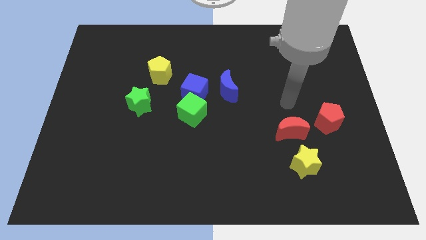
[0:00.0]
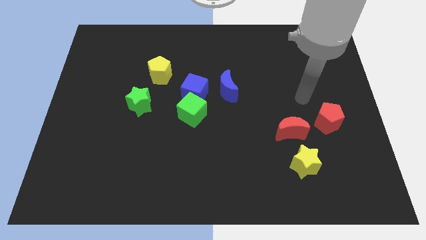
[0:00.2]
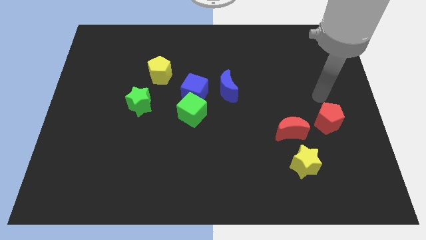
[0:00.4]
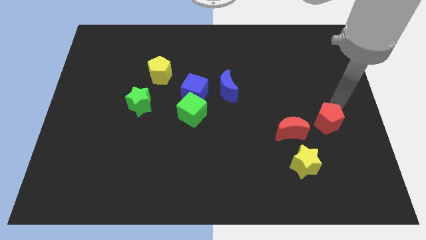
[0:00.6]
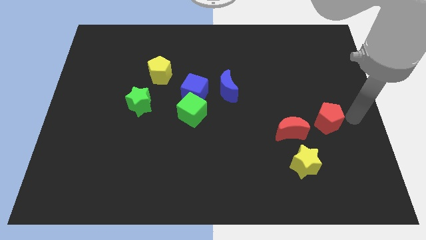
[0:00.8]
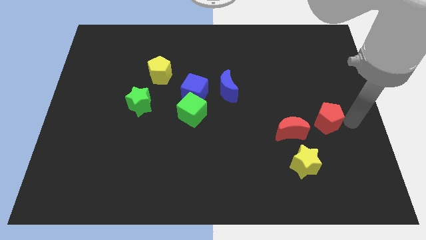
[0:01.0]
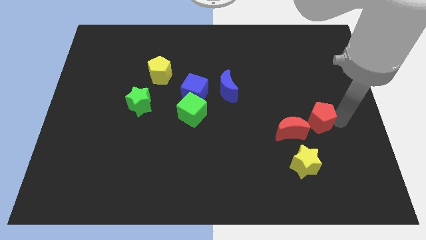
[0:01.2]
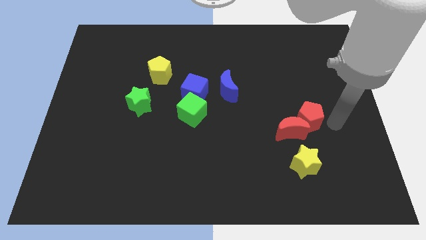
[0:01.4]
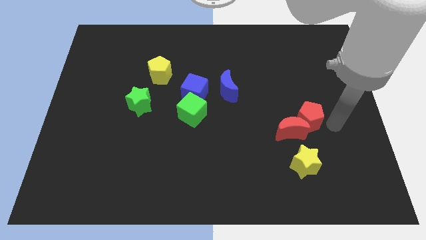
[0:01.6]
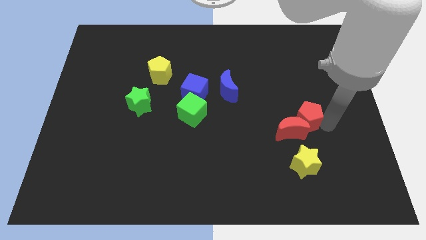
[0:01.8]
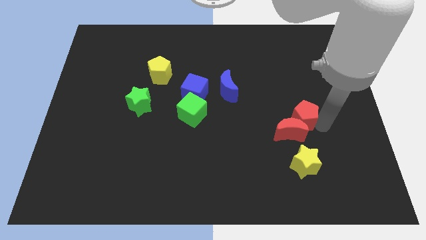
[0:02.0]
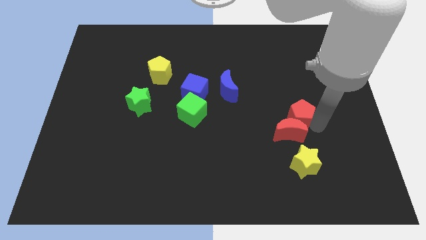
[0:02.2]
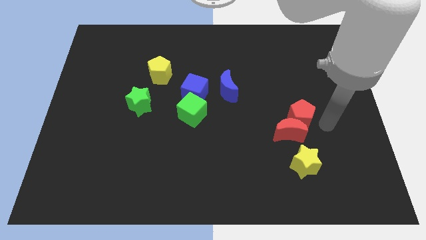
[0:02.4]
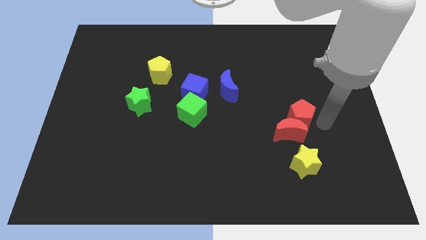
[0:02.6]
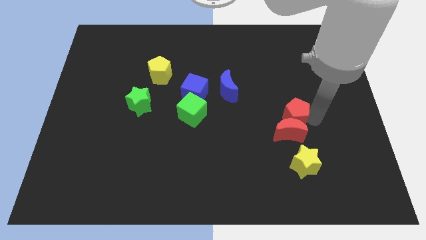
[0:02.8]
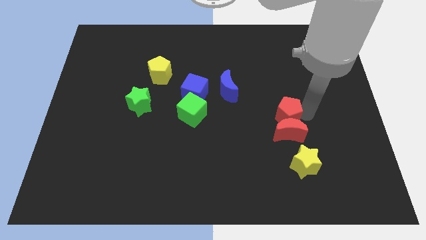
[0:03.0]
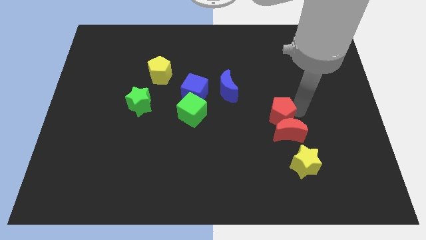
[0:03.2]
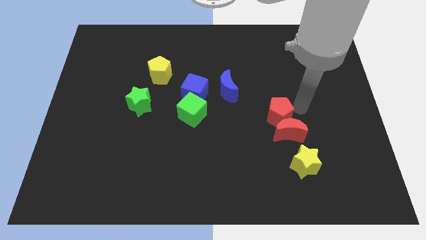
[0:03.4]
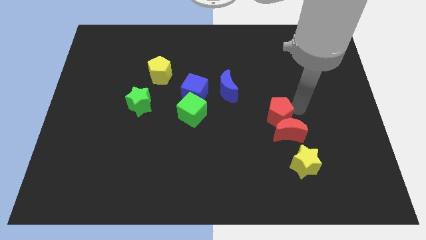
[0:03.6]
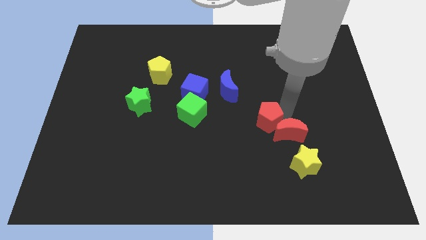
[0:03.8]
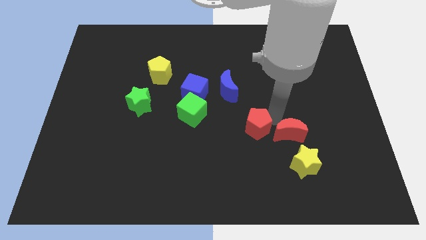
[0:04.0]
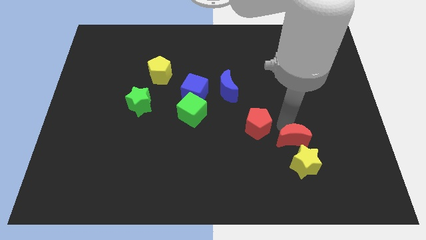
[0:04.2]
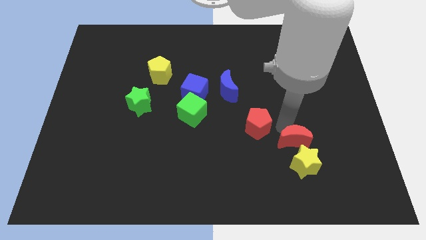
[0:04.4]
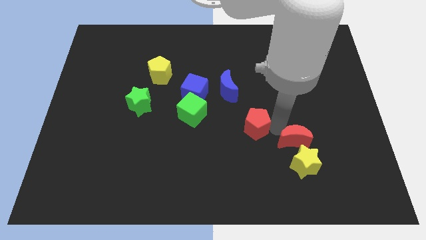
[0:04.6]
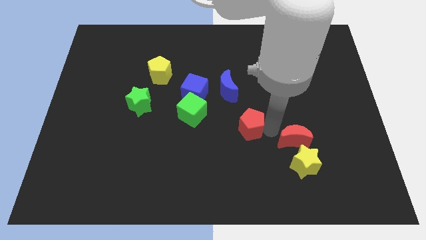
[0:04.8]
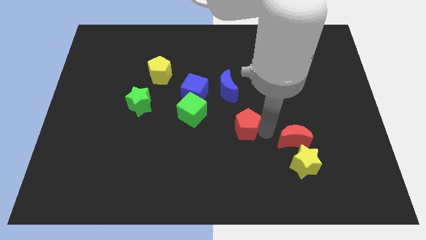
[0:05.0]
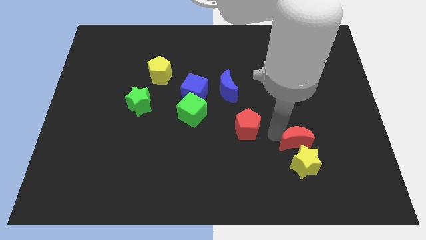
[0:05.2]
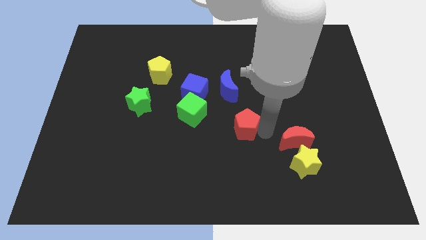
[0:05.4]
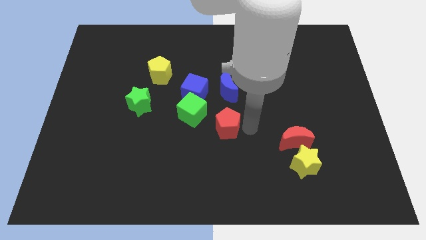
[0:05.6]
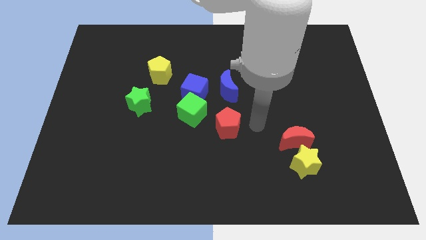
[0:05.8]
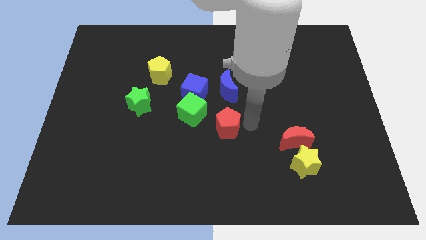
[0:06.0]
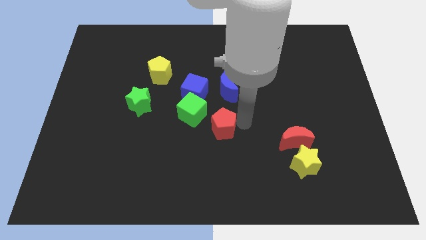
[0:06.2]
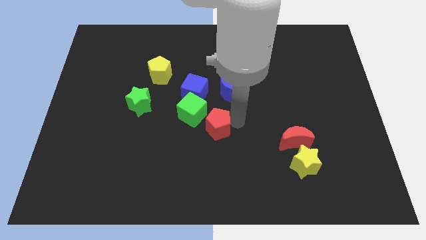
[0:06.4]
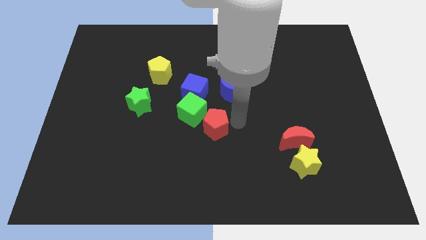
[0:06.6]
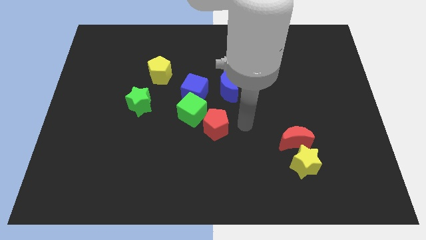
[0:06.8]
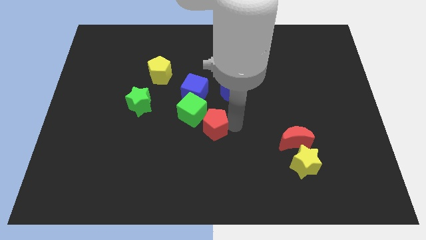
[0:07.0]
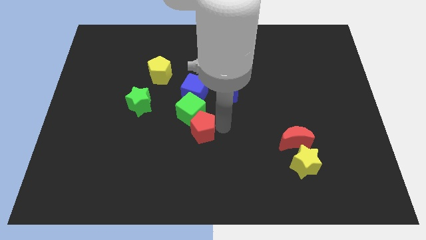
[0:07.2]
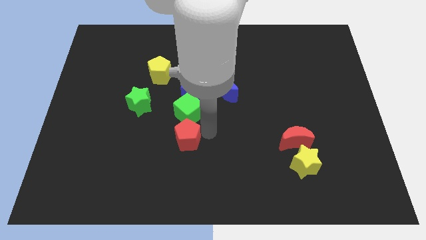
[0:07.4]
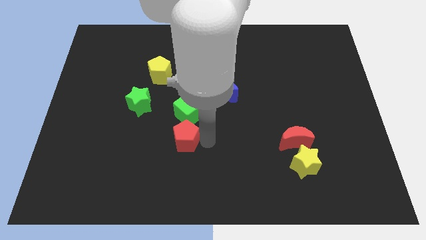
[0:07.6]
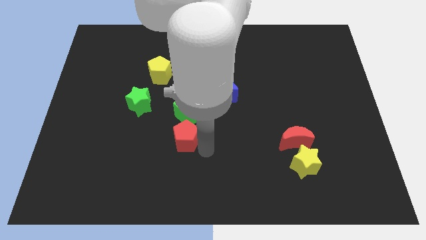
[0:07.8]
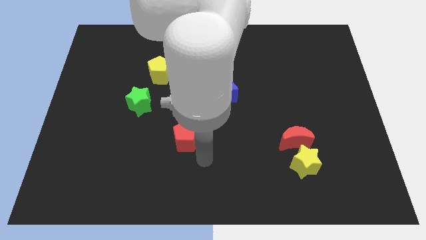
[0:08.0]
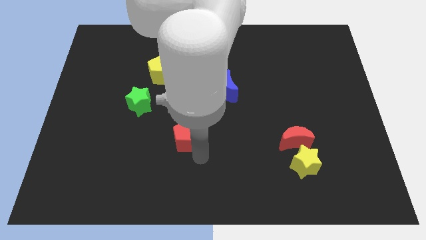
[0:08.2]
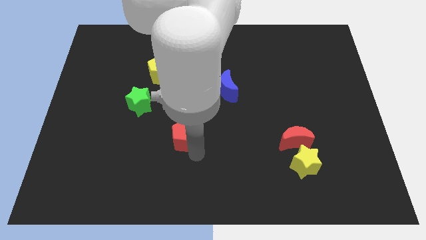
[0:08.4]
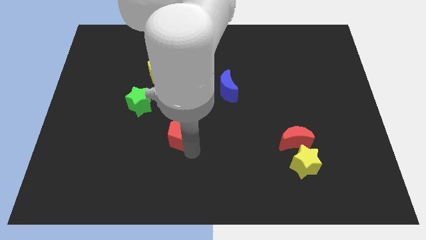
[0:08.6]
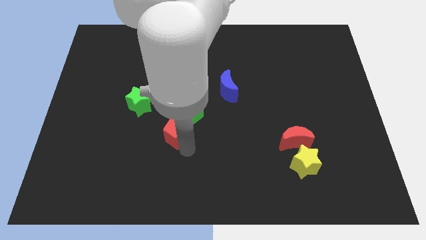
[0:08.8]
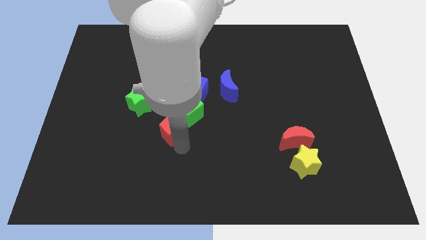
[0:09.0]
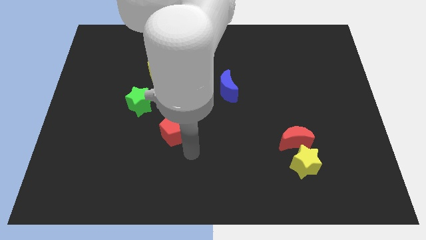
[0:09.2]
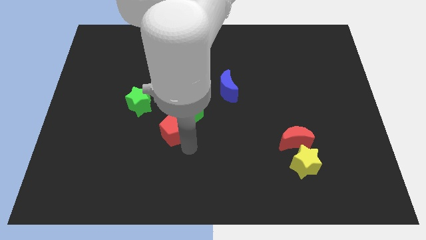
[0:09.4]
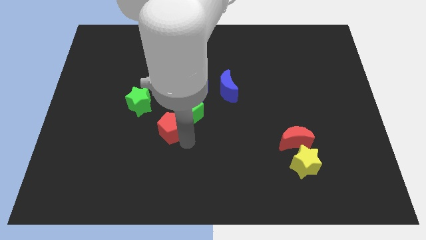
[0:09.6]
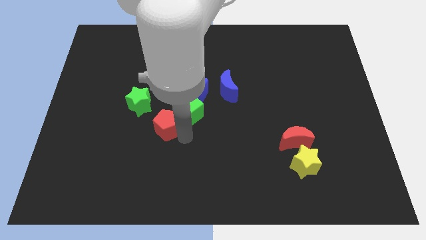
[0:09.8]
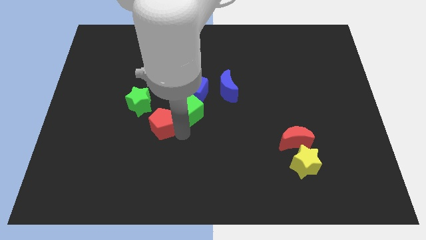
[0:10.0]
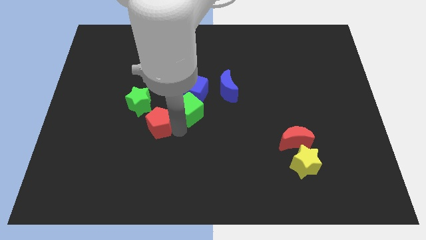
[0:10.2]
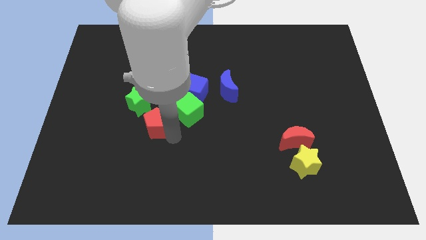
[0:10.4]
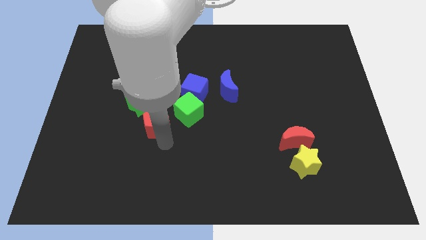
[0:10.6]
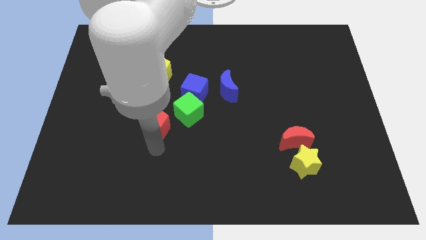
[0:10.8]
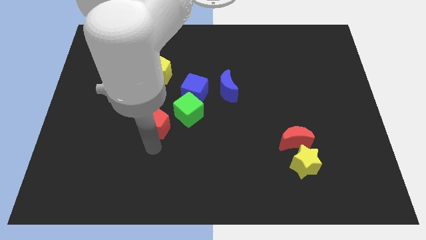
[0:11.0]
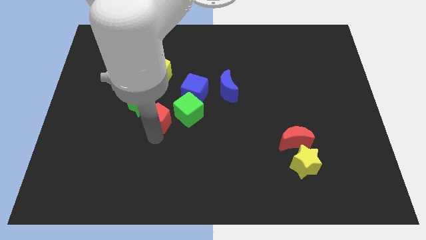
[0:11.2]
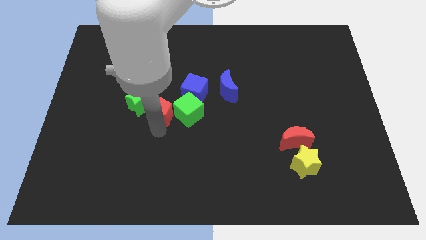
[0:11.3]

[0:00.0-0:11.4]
move the red pentagon close to the green star
